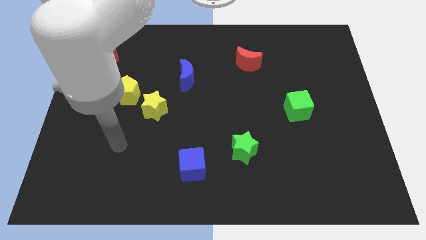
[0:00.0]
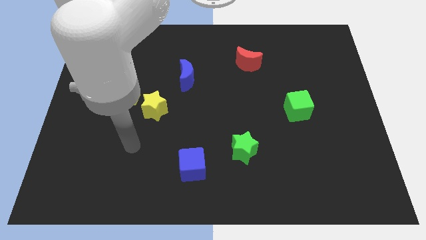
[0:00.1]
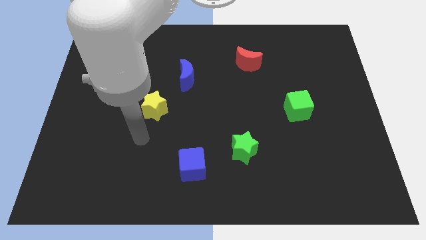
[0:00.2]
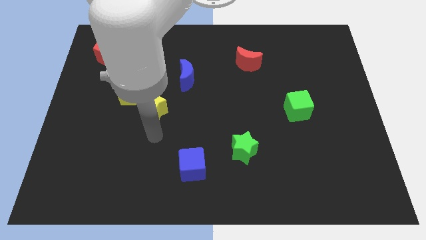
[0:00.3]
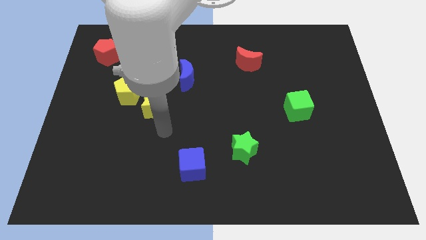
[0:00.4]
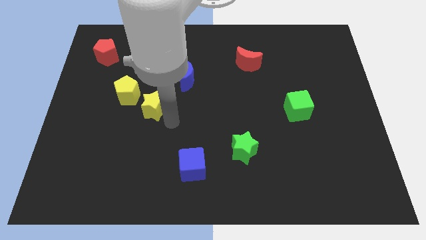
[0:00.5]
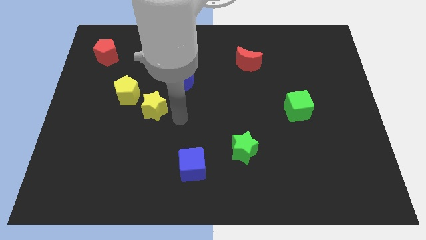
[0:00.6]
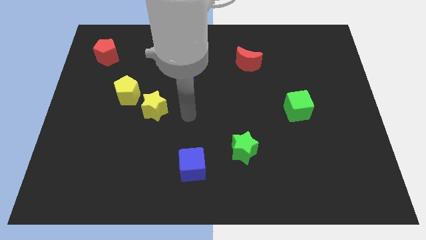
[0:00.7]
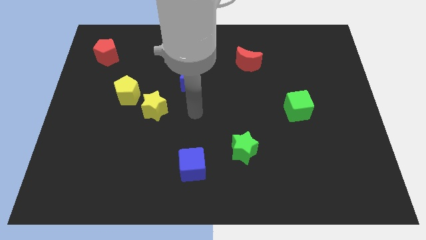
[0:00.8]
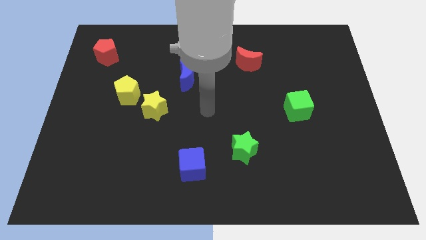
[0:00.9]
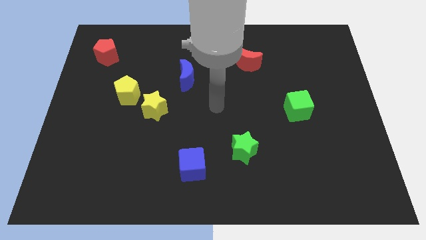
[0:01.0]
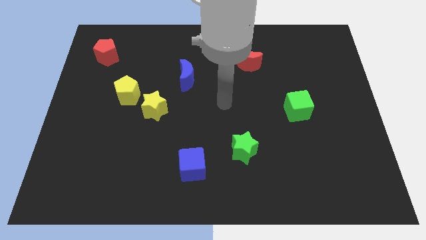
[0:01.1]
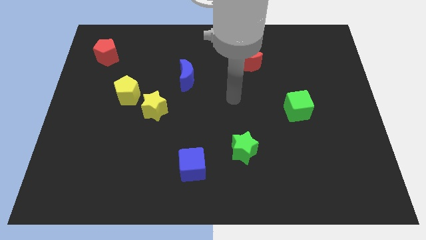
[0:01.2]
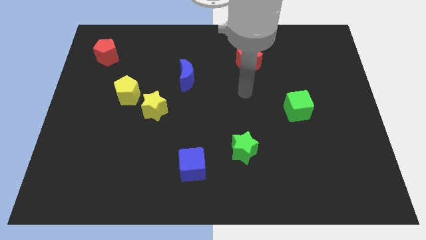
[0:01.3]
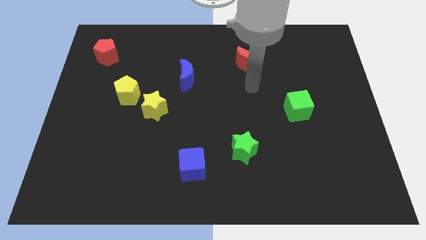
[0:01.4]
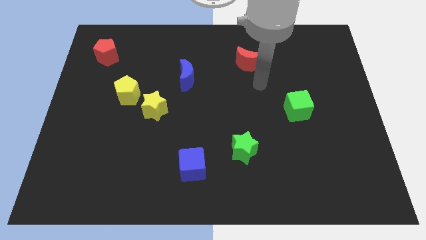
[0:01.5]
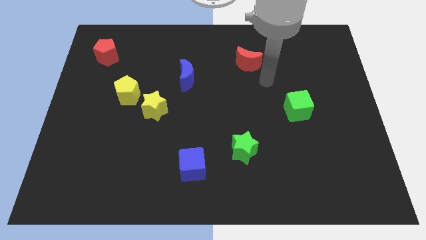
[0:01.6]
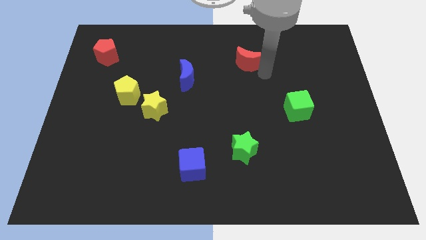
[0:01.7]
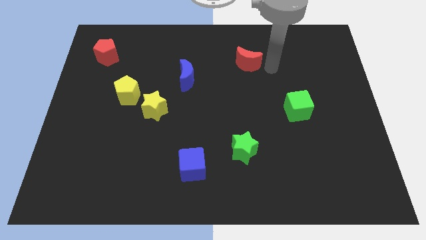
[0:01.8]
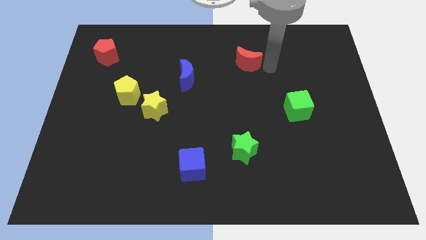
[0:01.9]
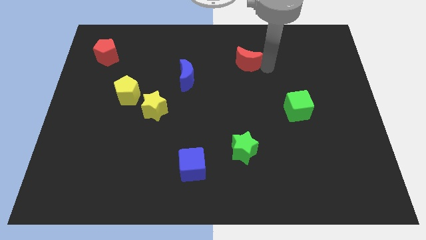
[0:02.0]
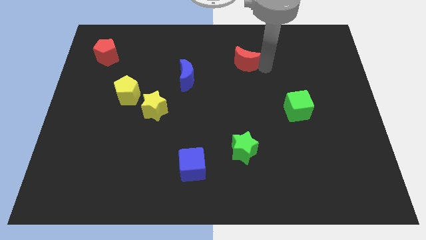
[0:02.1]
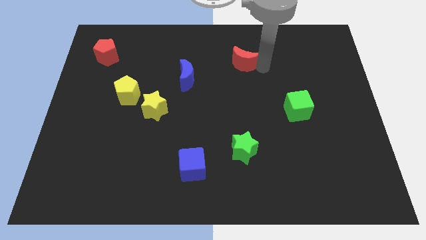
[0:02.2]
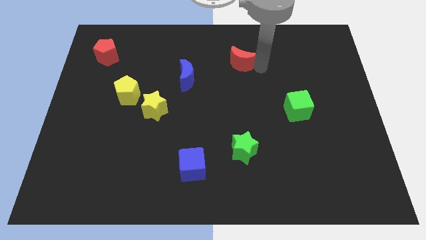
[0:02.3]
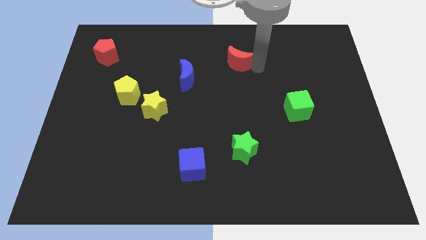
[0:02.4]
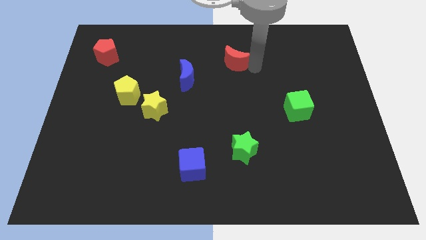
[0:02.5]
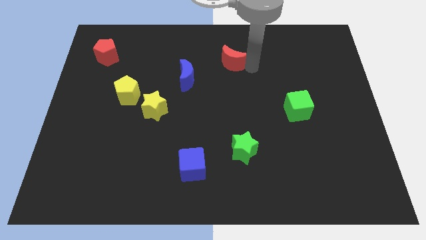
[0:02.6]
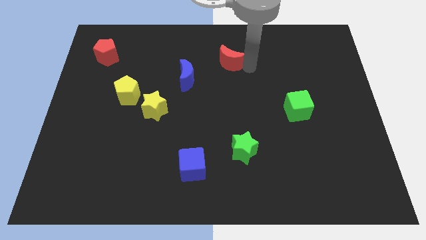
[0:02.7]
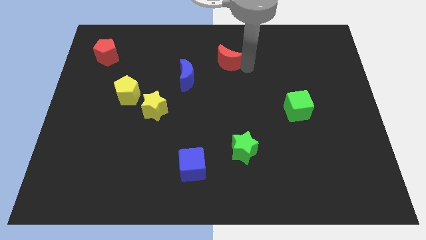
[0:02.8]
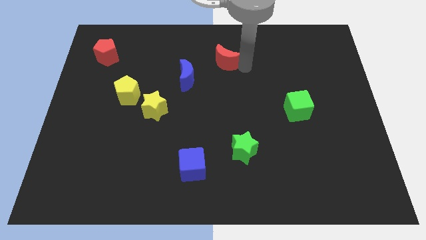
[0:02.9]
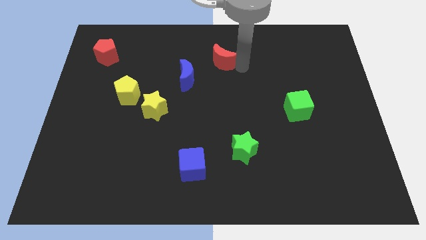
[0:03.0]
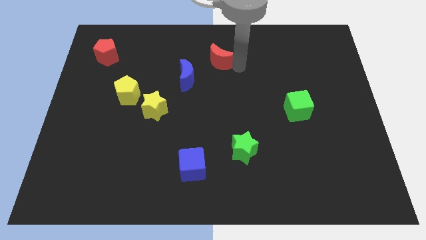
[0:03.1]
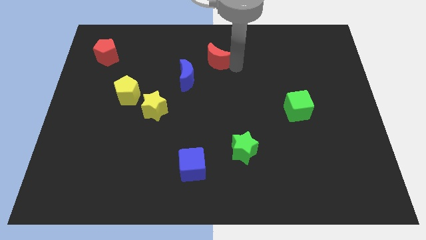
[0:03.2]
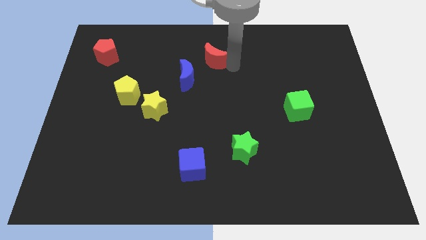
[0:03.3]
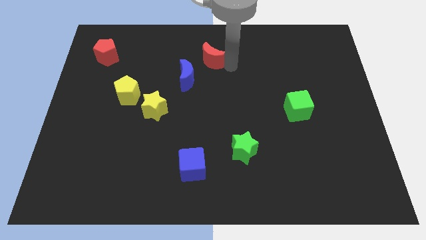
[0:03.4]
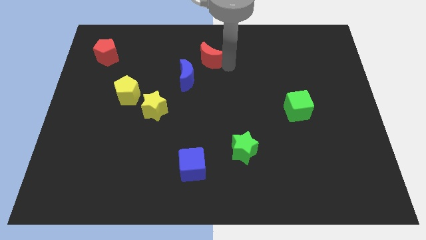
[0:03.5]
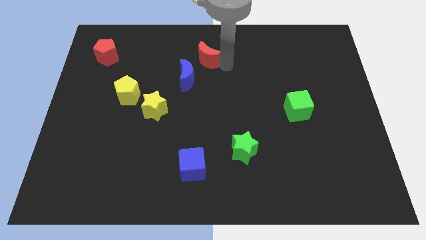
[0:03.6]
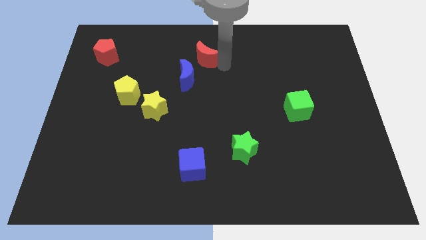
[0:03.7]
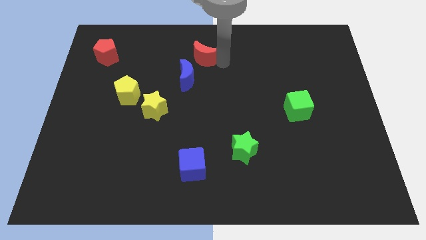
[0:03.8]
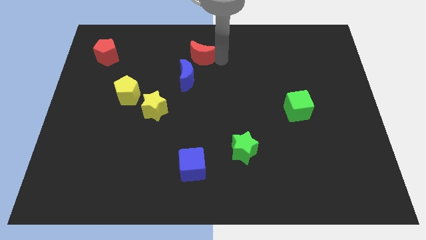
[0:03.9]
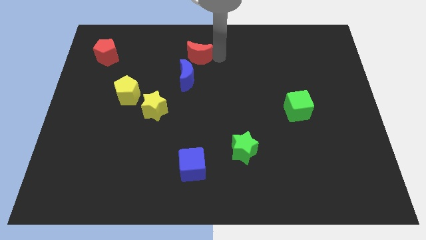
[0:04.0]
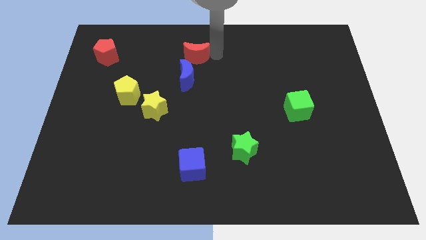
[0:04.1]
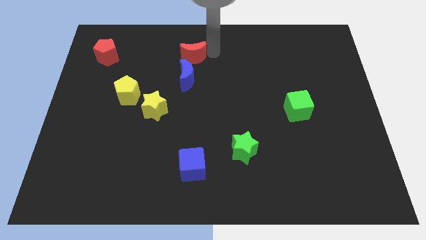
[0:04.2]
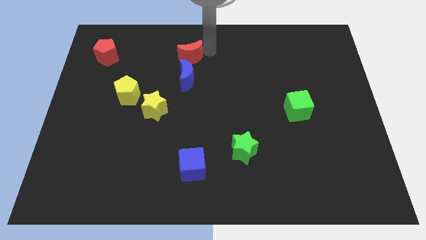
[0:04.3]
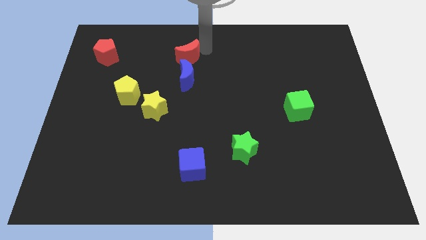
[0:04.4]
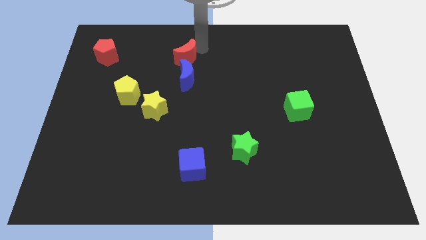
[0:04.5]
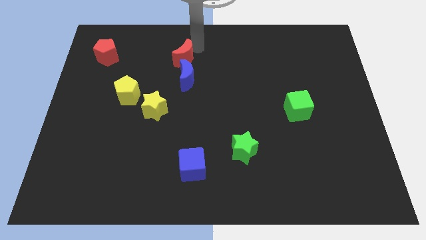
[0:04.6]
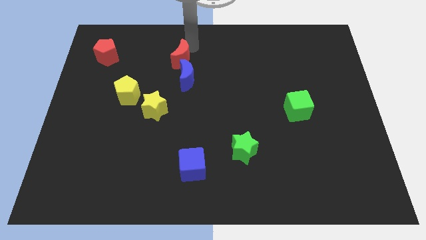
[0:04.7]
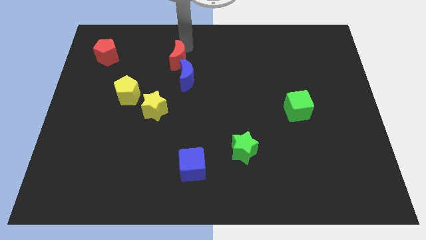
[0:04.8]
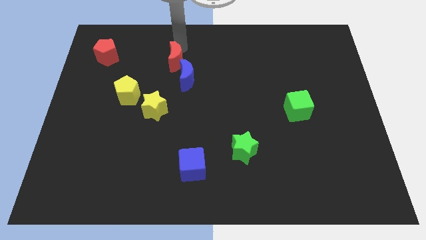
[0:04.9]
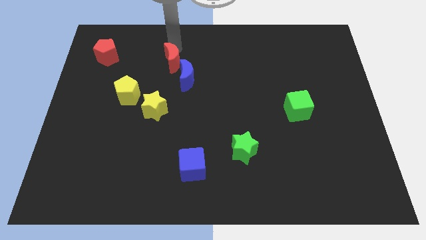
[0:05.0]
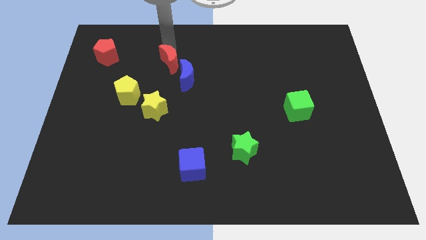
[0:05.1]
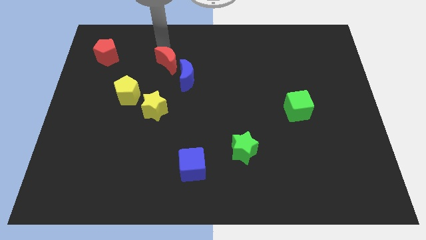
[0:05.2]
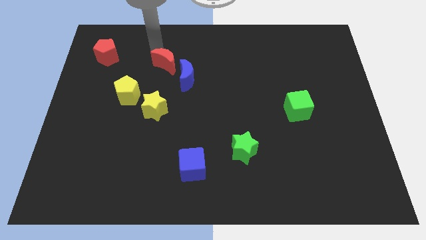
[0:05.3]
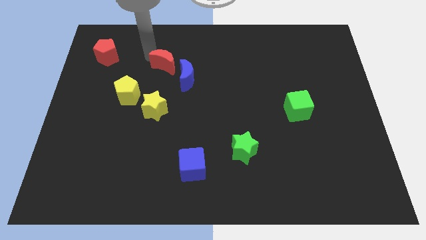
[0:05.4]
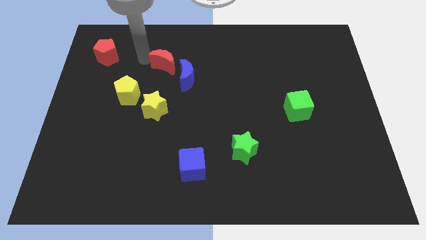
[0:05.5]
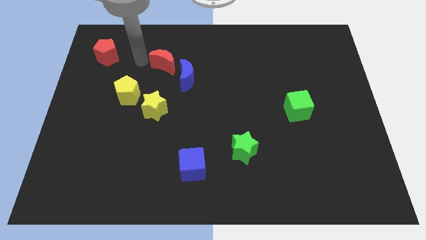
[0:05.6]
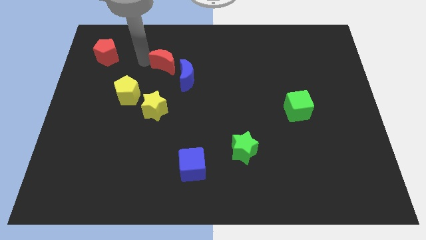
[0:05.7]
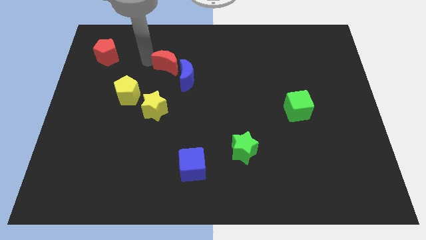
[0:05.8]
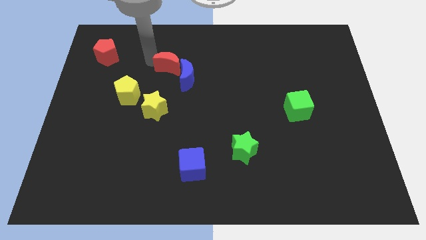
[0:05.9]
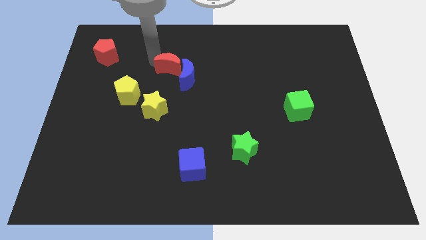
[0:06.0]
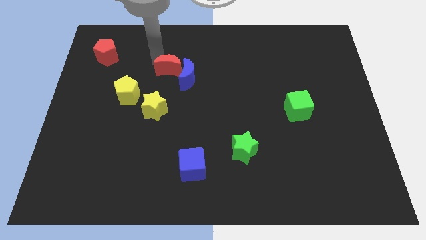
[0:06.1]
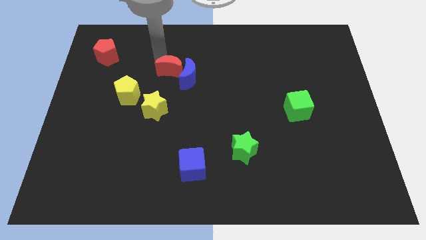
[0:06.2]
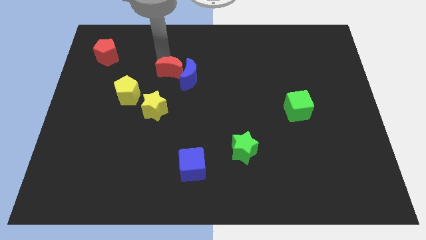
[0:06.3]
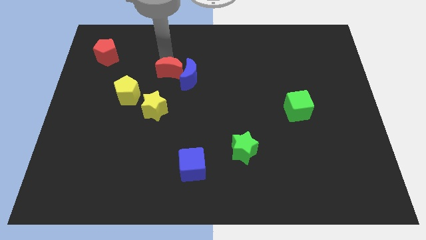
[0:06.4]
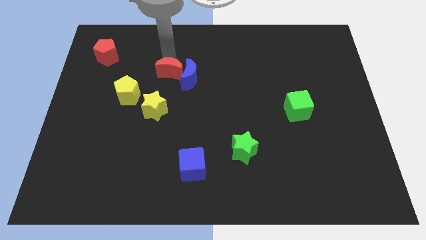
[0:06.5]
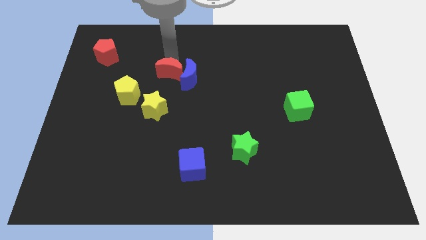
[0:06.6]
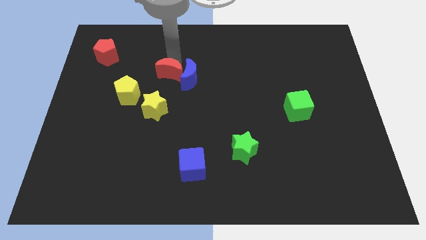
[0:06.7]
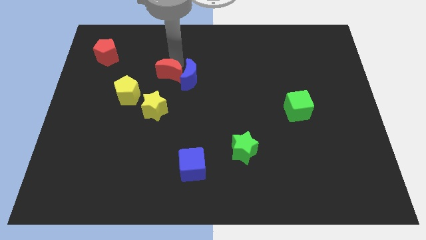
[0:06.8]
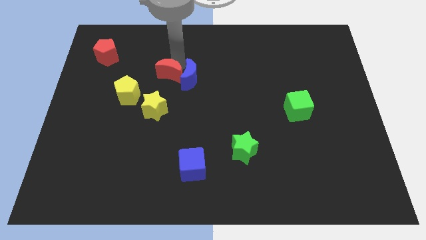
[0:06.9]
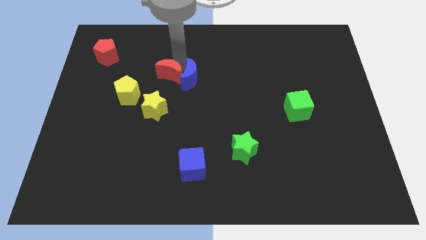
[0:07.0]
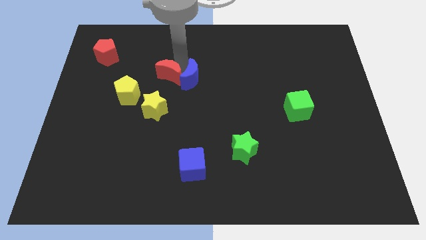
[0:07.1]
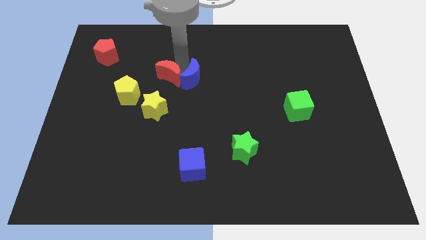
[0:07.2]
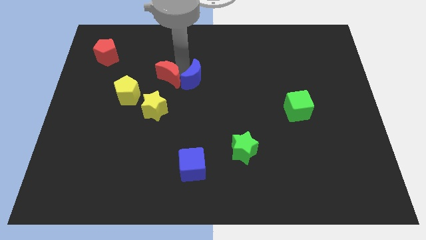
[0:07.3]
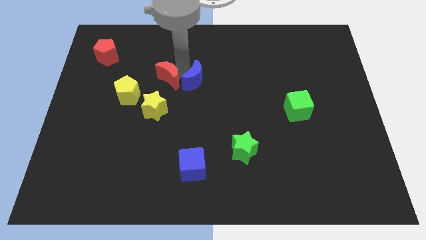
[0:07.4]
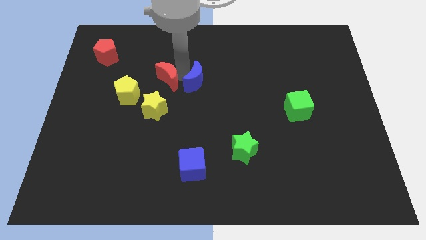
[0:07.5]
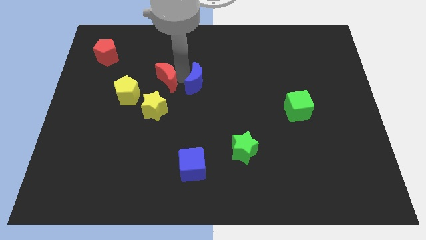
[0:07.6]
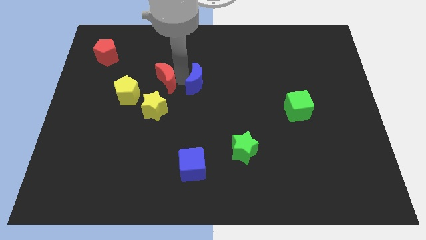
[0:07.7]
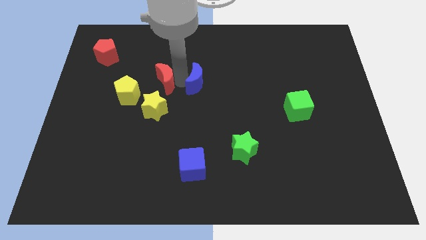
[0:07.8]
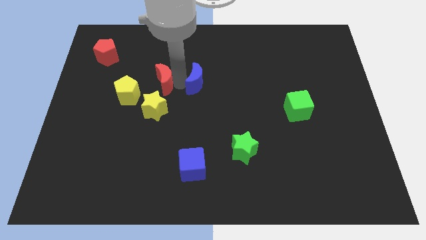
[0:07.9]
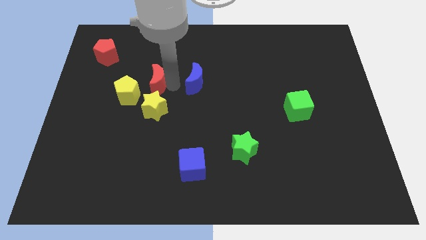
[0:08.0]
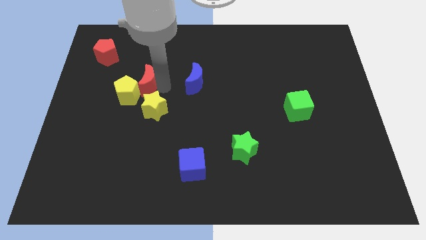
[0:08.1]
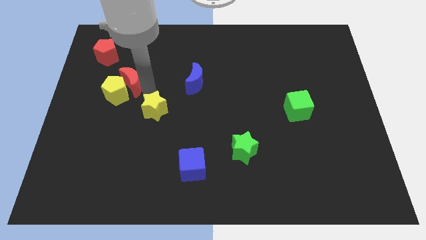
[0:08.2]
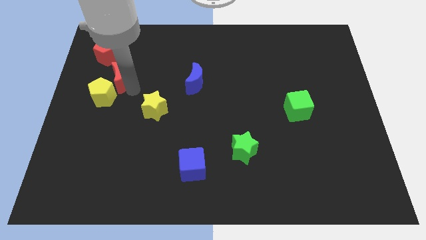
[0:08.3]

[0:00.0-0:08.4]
put the red moon below the red pentagon
